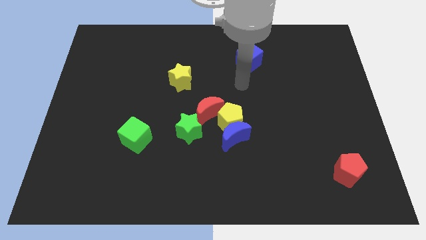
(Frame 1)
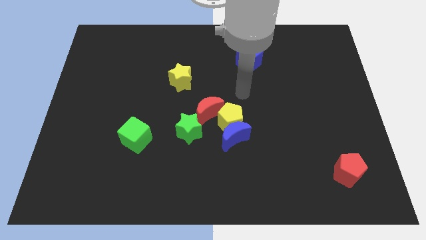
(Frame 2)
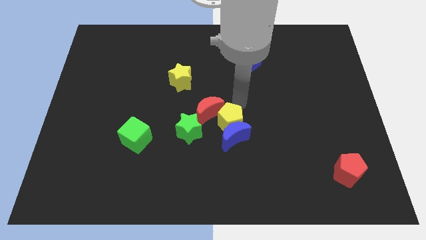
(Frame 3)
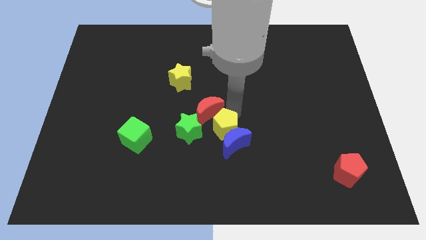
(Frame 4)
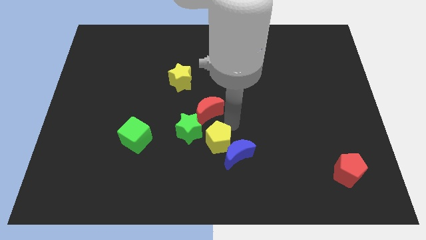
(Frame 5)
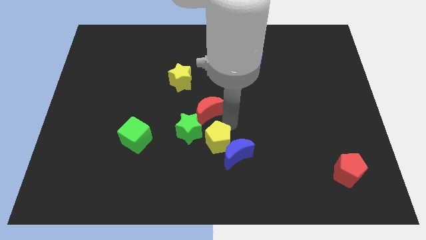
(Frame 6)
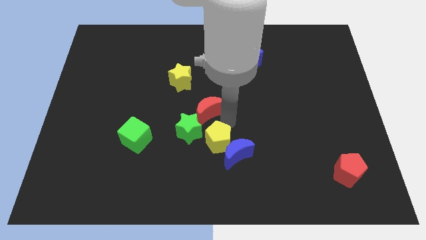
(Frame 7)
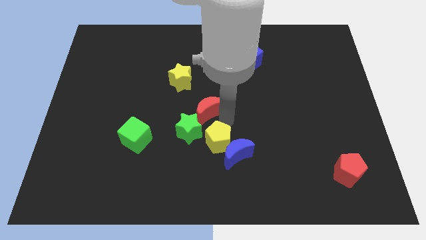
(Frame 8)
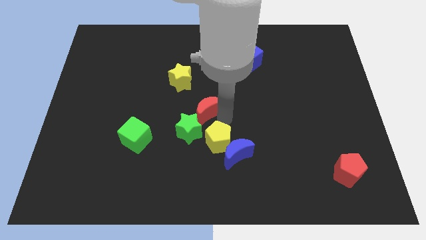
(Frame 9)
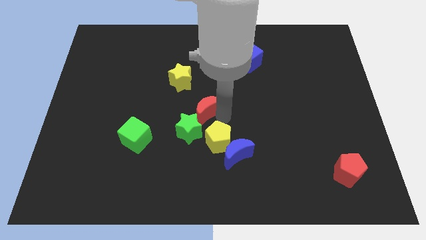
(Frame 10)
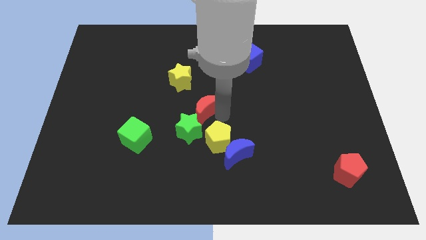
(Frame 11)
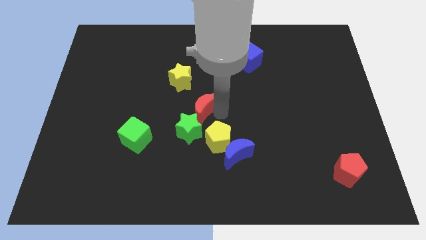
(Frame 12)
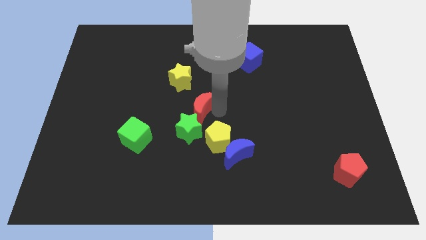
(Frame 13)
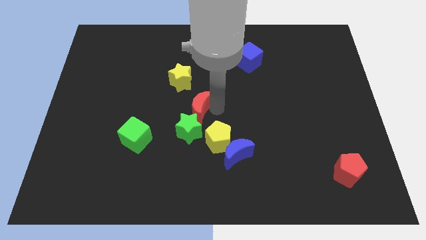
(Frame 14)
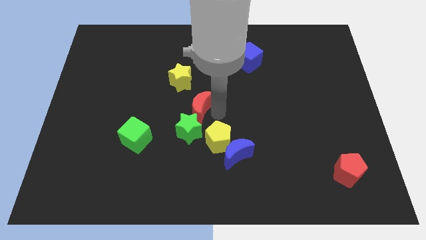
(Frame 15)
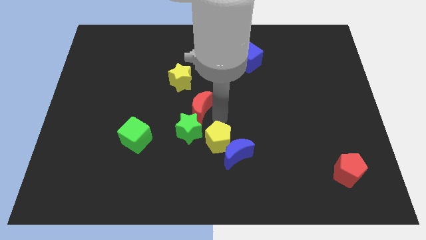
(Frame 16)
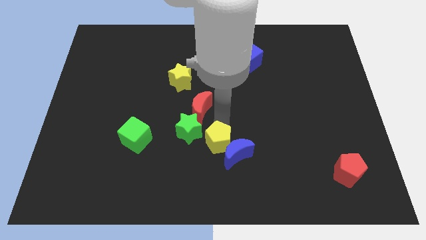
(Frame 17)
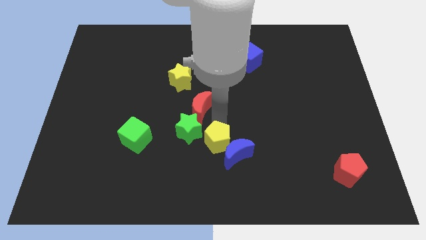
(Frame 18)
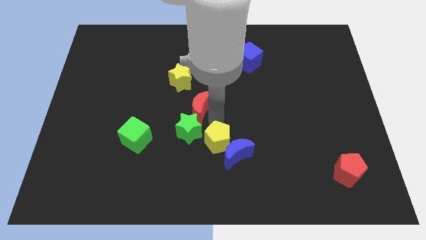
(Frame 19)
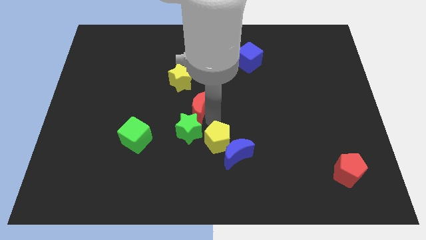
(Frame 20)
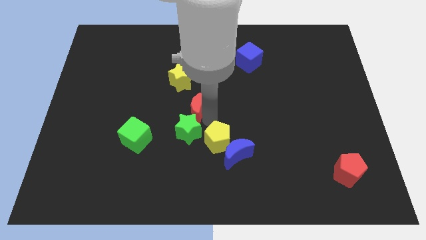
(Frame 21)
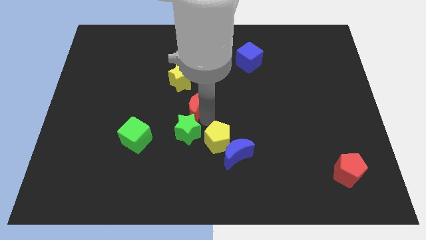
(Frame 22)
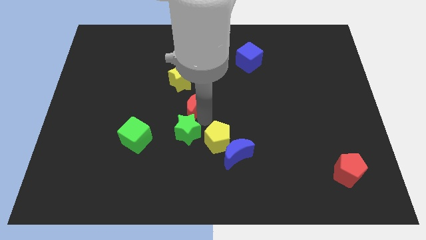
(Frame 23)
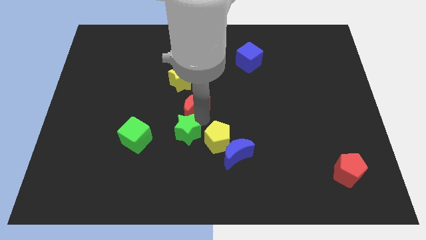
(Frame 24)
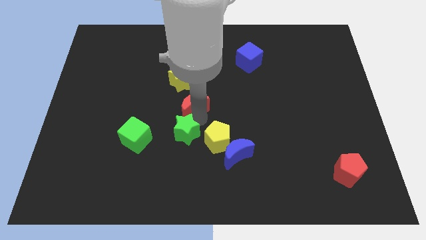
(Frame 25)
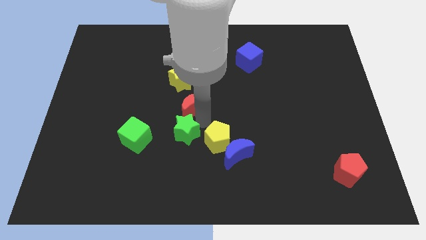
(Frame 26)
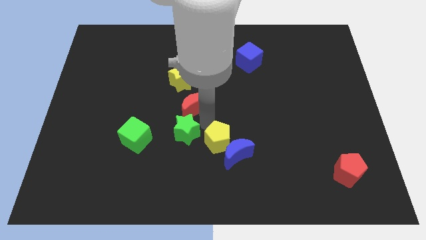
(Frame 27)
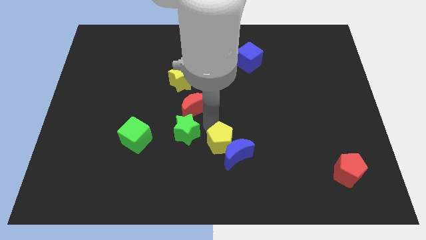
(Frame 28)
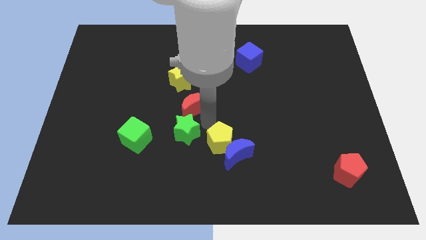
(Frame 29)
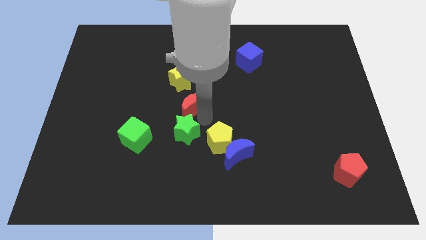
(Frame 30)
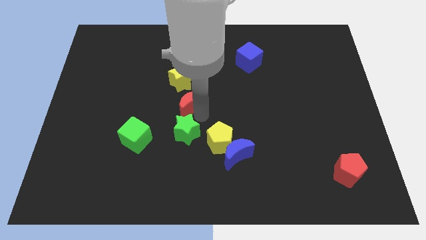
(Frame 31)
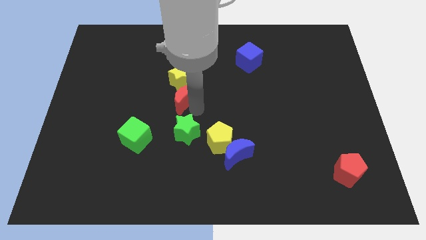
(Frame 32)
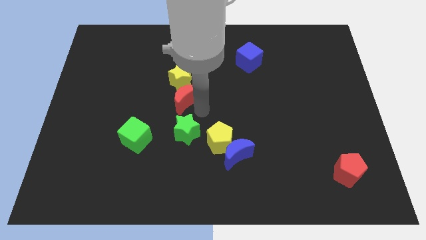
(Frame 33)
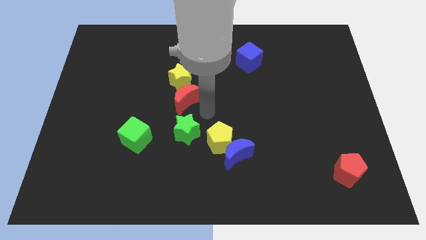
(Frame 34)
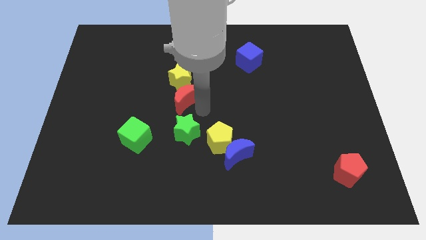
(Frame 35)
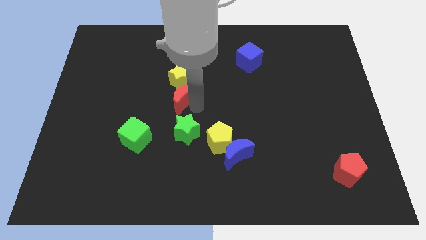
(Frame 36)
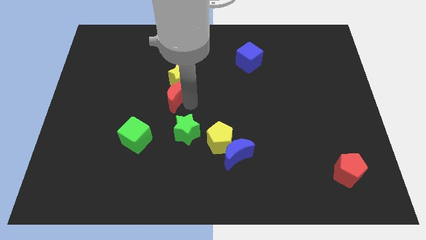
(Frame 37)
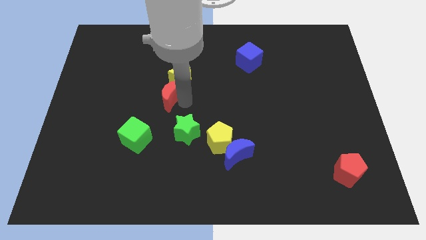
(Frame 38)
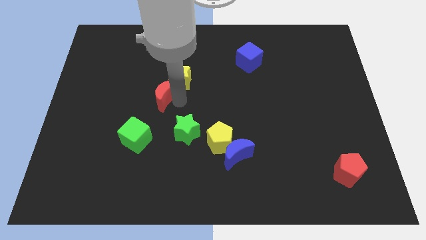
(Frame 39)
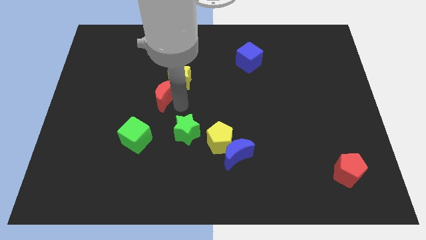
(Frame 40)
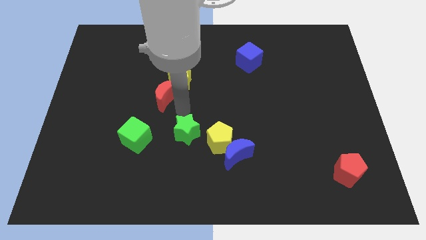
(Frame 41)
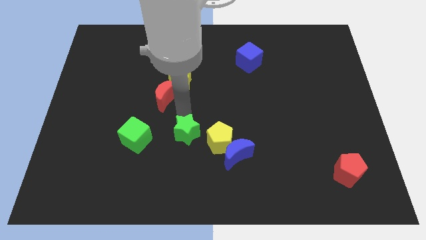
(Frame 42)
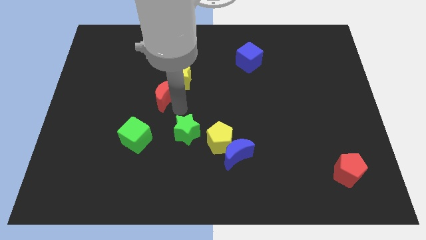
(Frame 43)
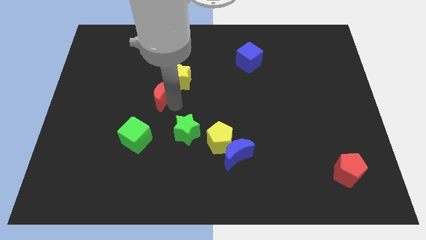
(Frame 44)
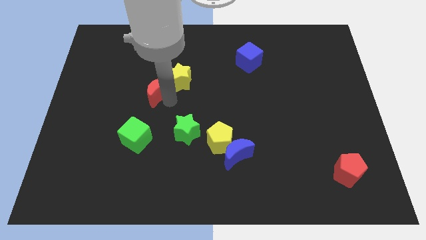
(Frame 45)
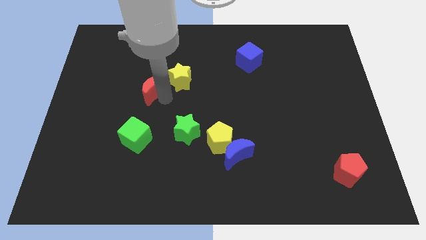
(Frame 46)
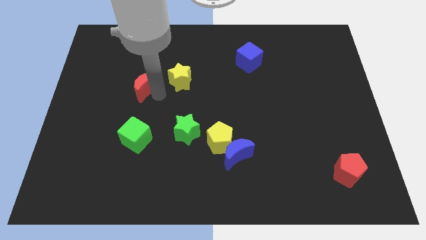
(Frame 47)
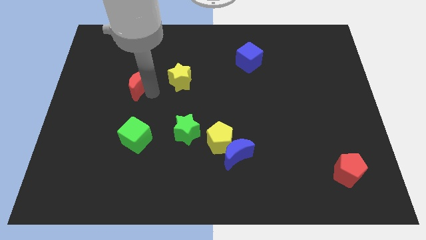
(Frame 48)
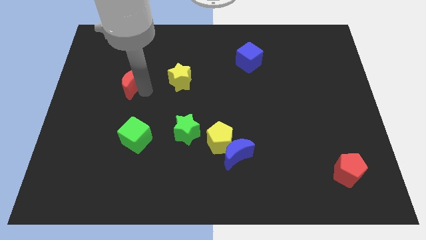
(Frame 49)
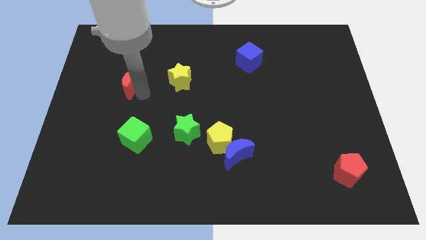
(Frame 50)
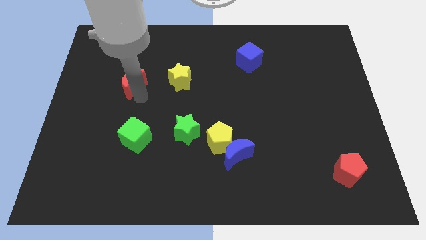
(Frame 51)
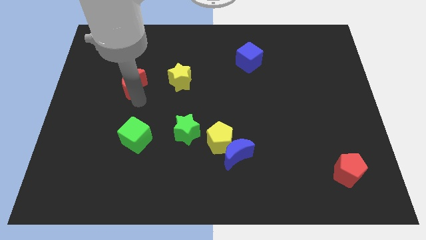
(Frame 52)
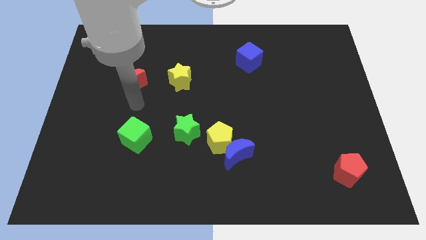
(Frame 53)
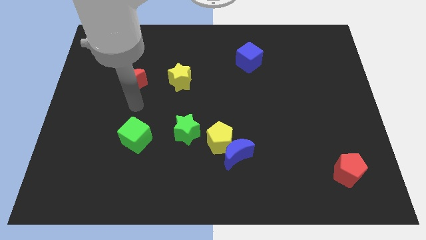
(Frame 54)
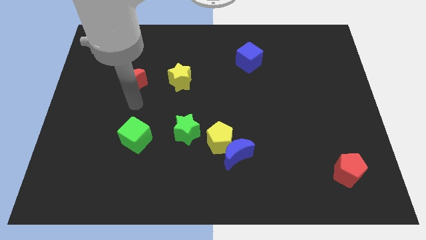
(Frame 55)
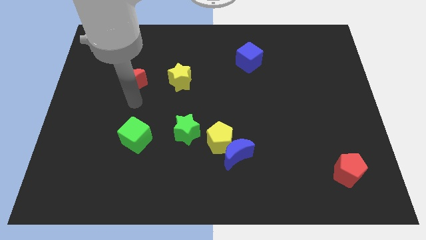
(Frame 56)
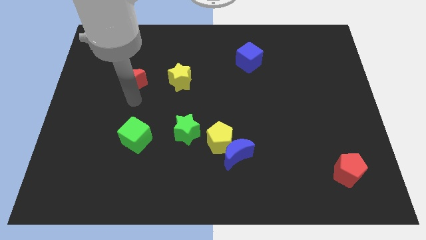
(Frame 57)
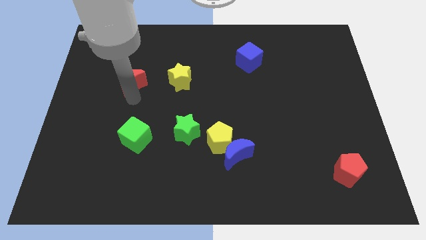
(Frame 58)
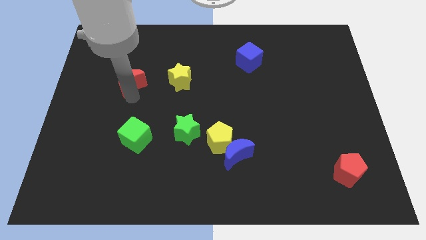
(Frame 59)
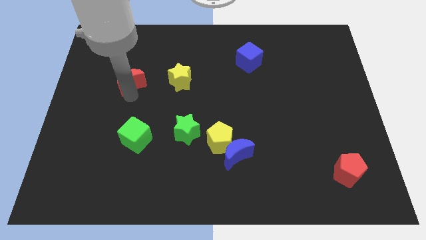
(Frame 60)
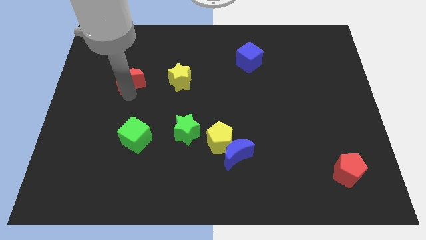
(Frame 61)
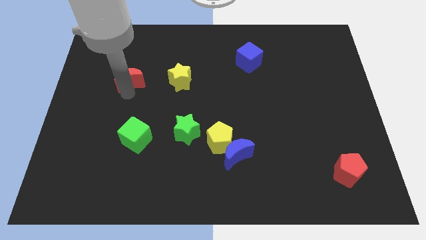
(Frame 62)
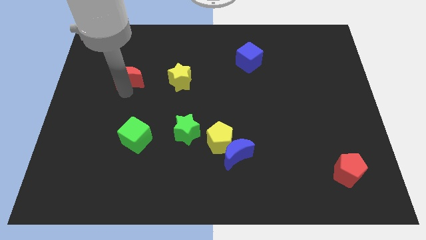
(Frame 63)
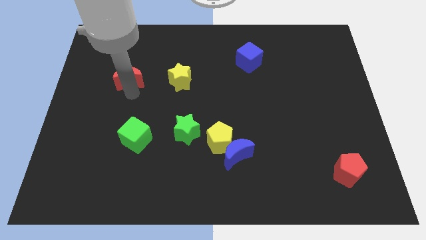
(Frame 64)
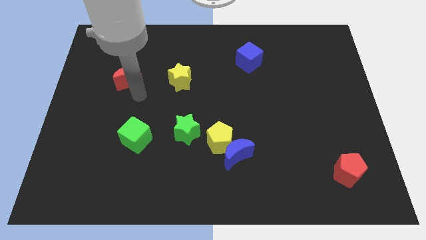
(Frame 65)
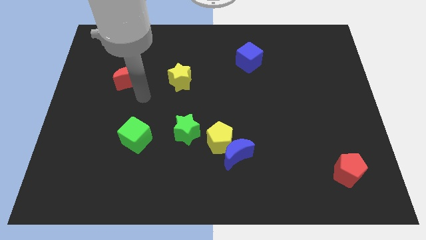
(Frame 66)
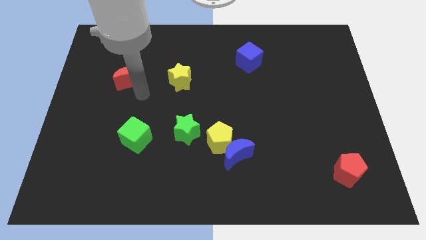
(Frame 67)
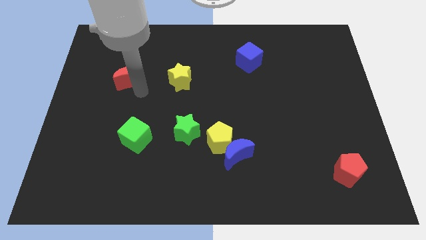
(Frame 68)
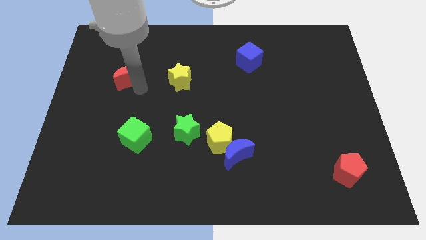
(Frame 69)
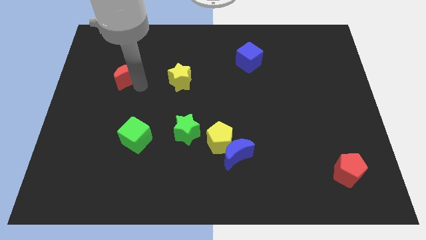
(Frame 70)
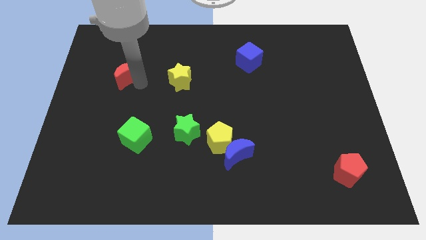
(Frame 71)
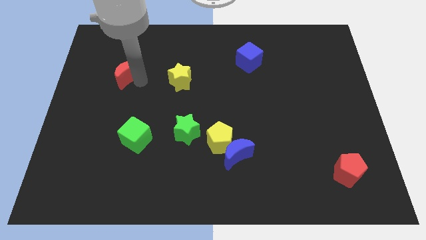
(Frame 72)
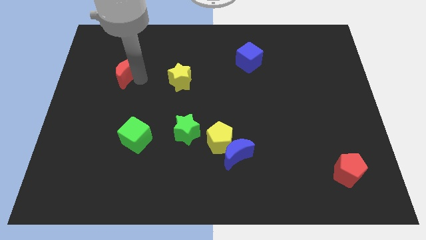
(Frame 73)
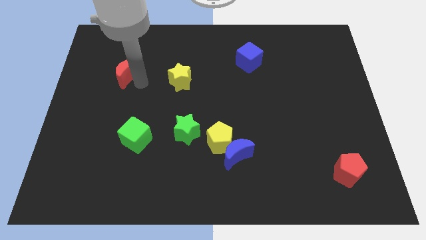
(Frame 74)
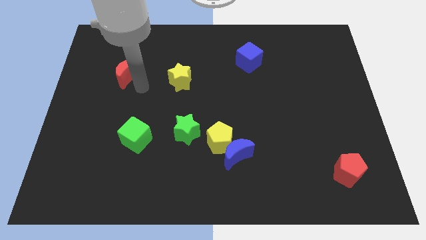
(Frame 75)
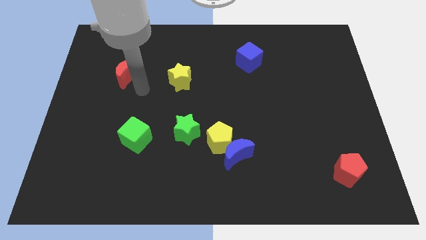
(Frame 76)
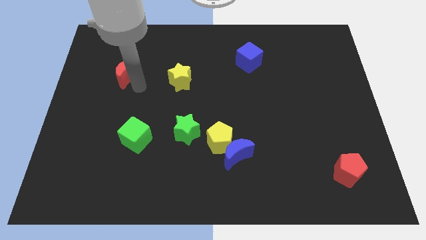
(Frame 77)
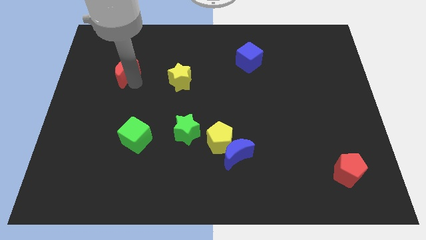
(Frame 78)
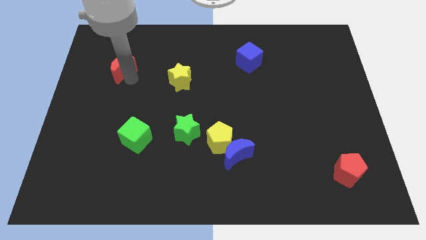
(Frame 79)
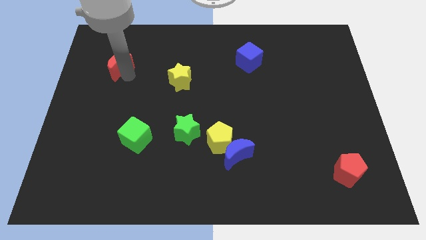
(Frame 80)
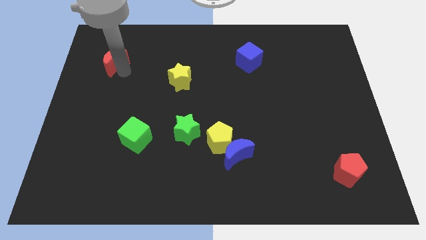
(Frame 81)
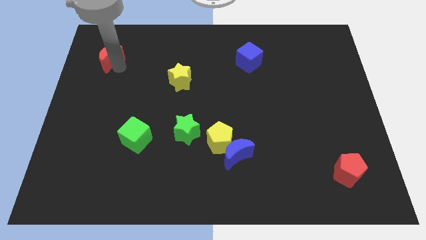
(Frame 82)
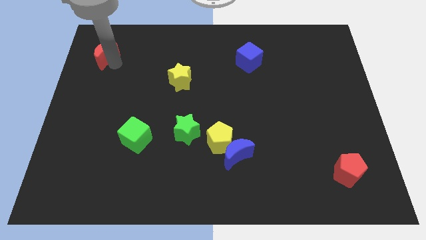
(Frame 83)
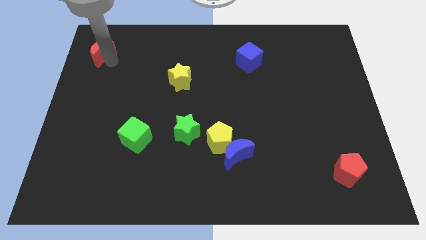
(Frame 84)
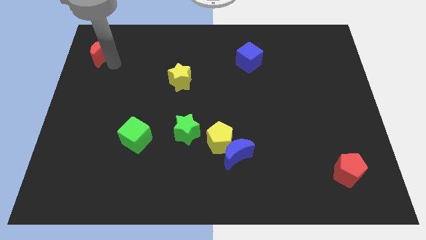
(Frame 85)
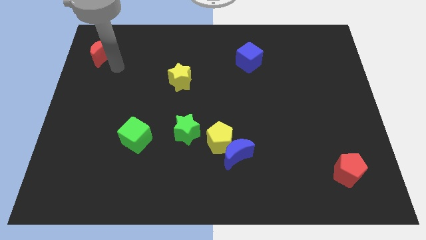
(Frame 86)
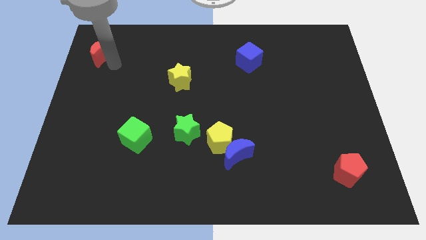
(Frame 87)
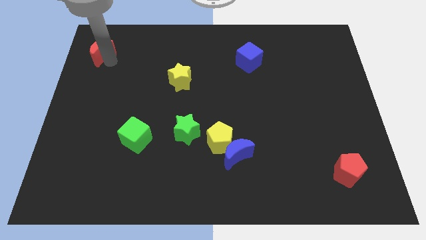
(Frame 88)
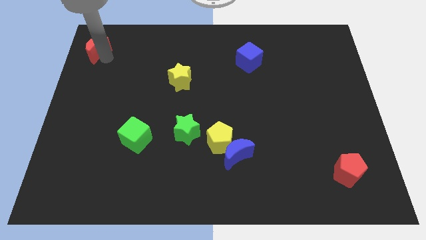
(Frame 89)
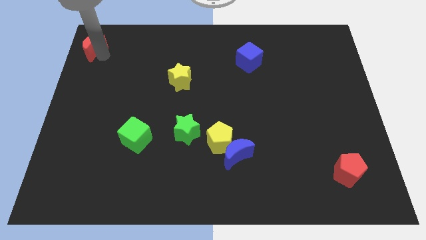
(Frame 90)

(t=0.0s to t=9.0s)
slide the red moon to the upper left corner
